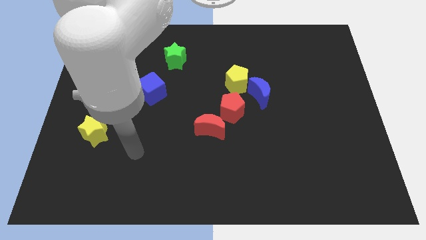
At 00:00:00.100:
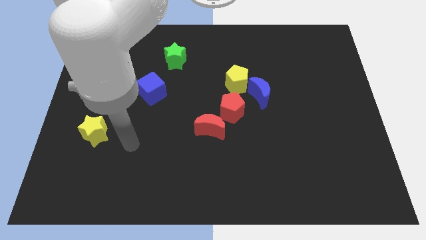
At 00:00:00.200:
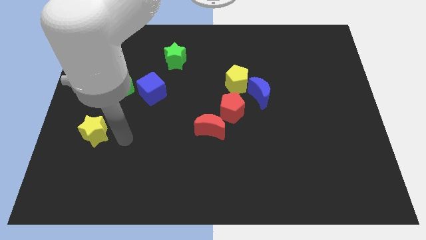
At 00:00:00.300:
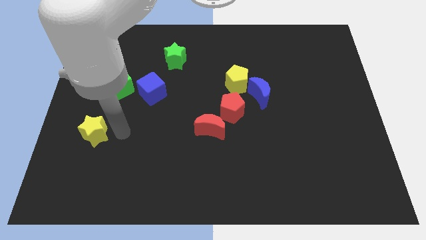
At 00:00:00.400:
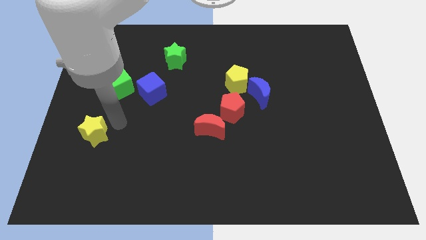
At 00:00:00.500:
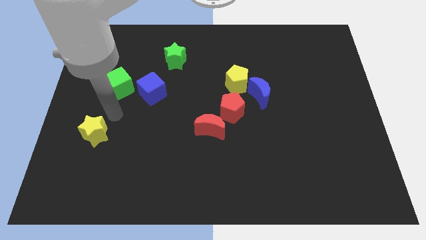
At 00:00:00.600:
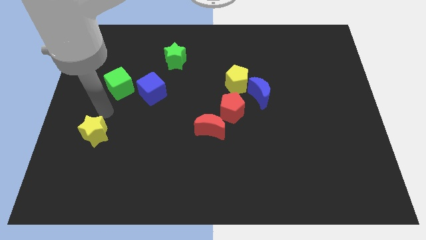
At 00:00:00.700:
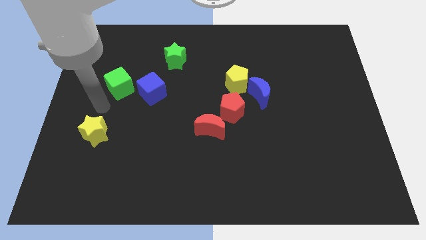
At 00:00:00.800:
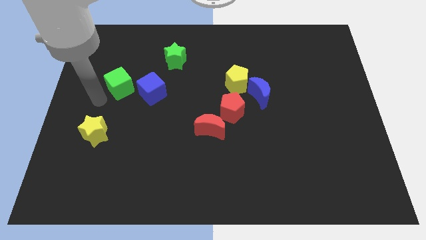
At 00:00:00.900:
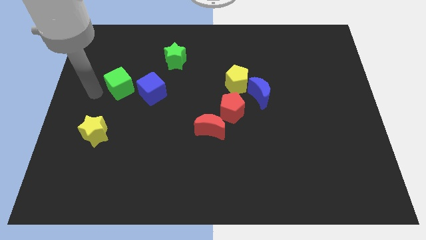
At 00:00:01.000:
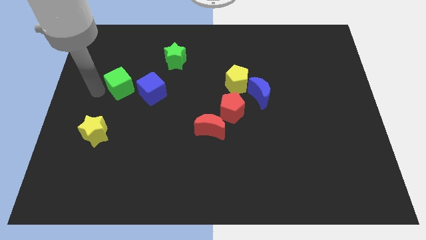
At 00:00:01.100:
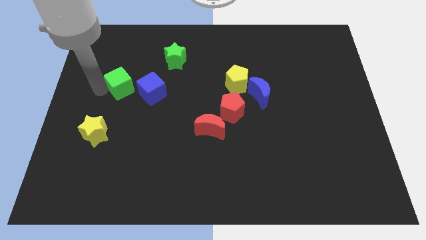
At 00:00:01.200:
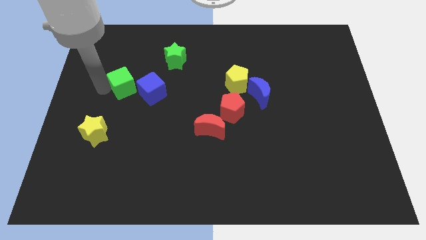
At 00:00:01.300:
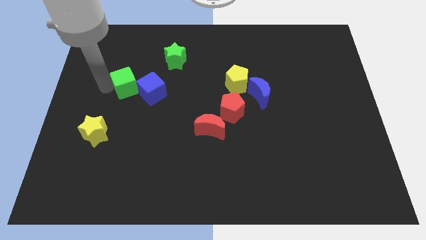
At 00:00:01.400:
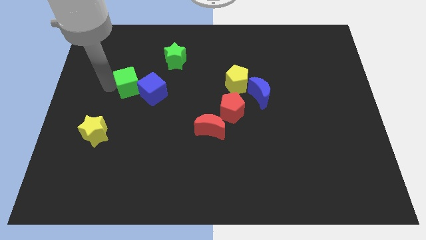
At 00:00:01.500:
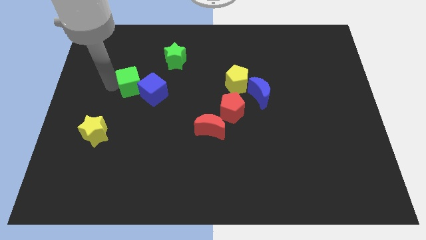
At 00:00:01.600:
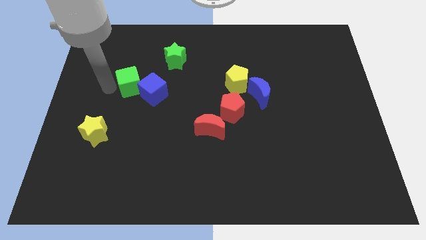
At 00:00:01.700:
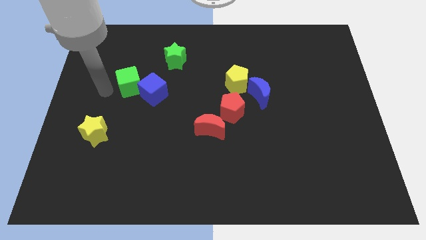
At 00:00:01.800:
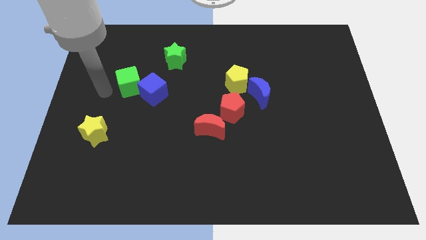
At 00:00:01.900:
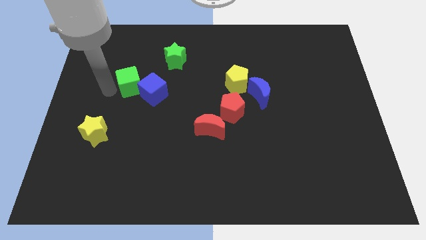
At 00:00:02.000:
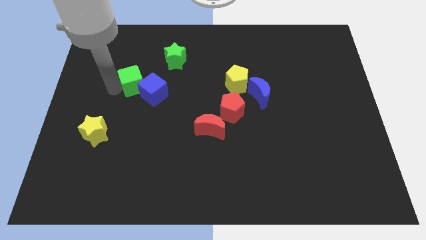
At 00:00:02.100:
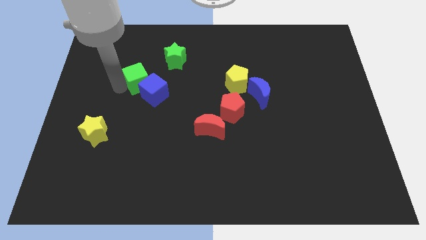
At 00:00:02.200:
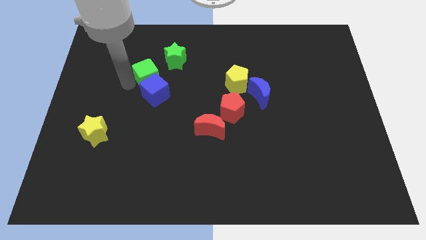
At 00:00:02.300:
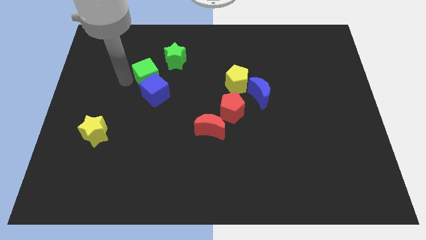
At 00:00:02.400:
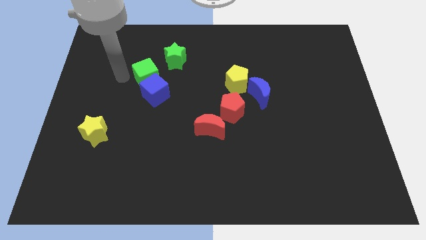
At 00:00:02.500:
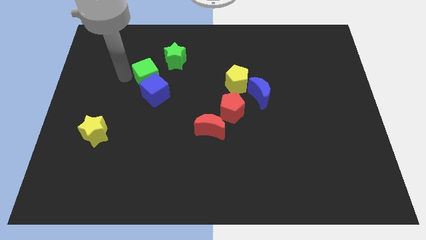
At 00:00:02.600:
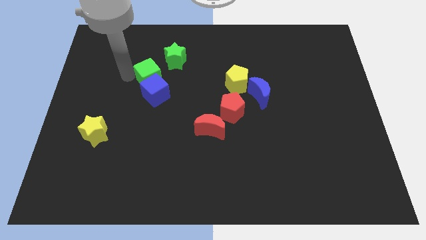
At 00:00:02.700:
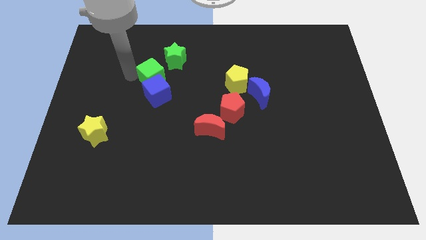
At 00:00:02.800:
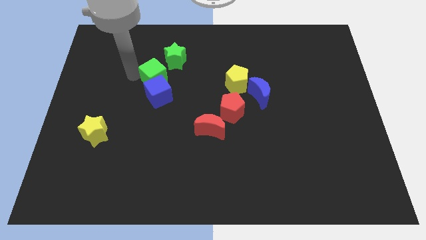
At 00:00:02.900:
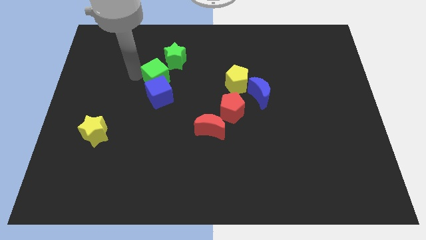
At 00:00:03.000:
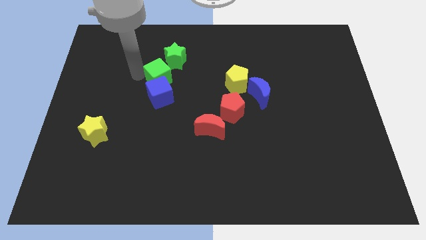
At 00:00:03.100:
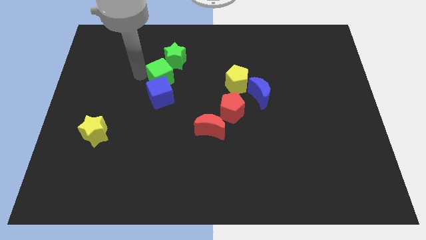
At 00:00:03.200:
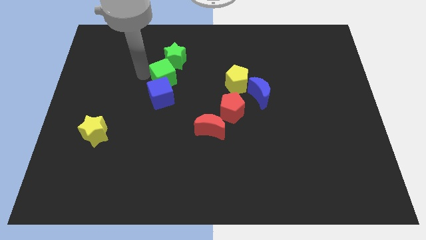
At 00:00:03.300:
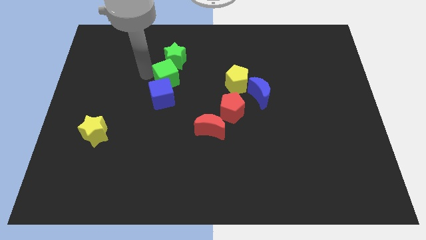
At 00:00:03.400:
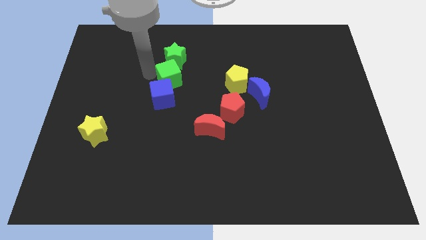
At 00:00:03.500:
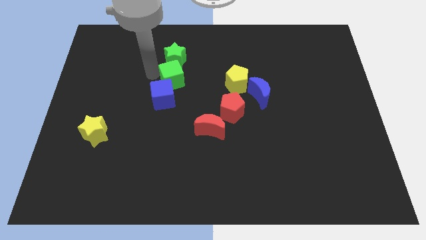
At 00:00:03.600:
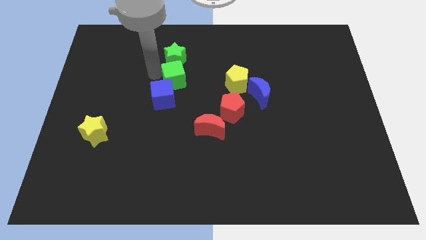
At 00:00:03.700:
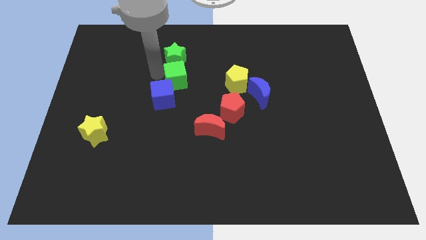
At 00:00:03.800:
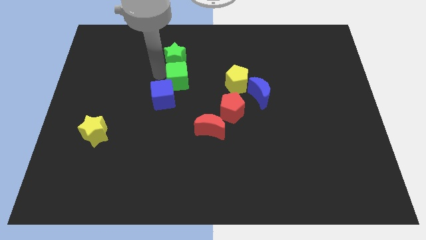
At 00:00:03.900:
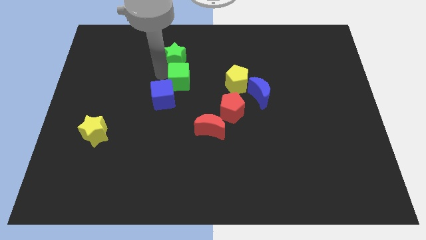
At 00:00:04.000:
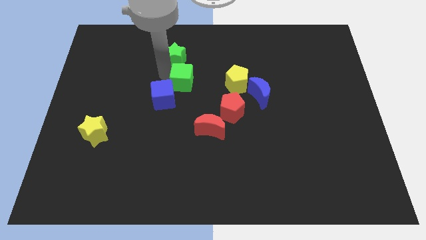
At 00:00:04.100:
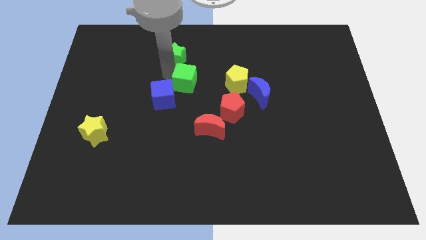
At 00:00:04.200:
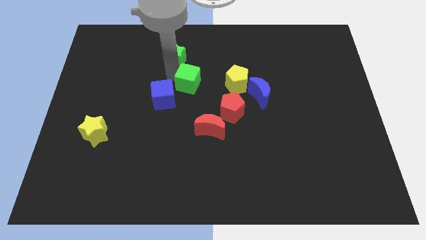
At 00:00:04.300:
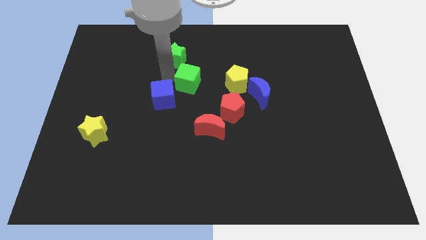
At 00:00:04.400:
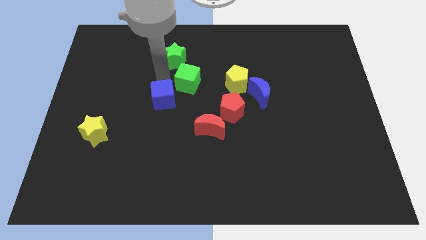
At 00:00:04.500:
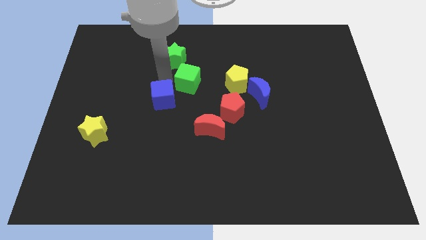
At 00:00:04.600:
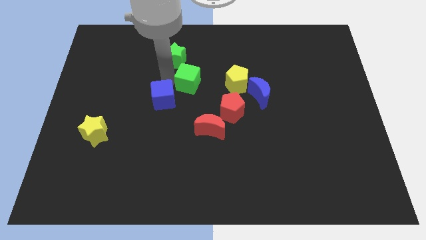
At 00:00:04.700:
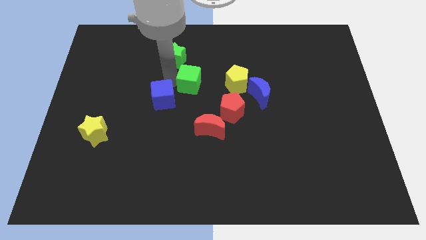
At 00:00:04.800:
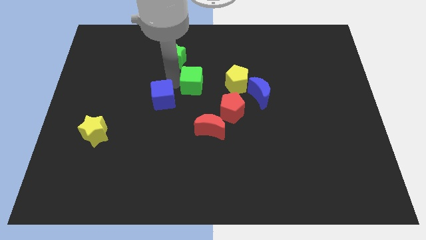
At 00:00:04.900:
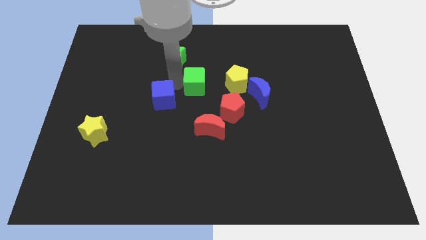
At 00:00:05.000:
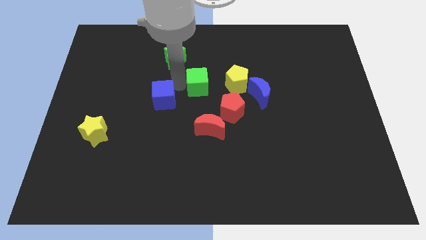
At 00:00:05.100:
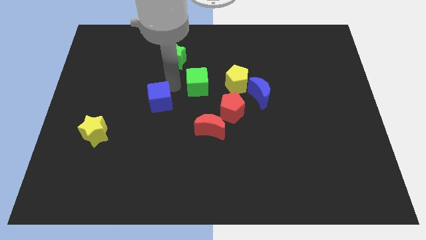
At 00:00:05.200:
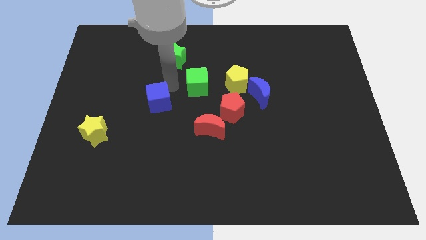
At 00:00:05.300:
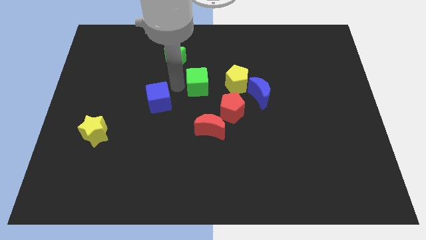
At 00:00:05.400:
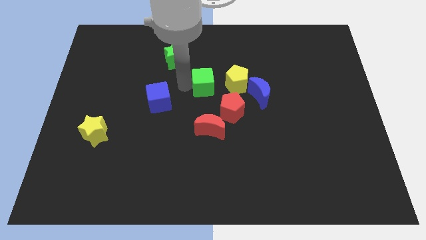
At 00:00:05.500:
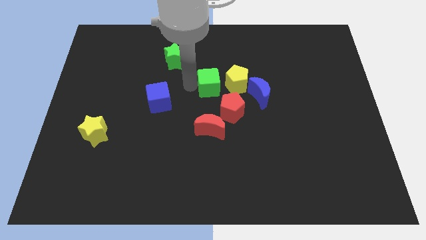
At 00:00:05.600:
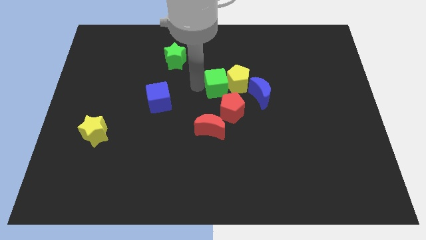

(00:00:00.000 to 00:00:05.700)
push the green cube towards the yellow pentagon
